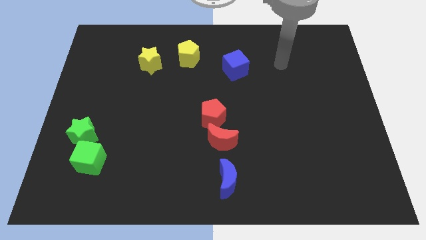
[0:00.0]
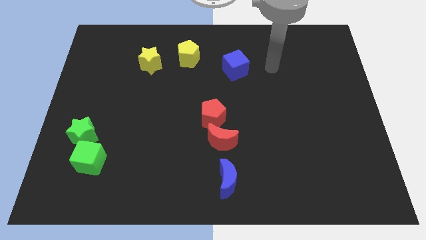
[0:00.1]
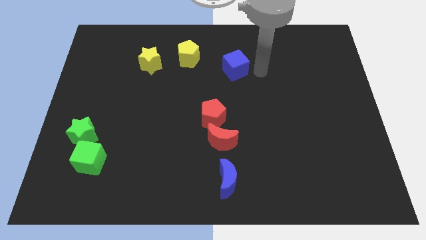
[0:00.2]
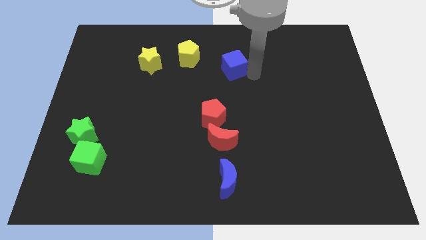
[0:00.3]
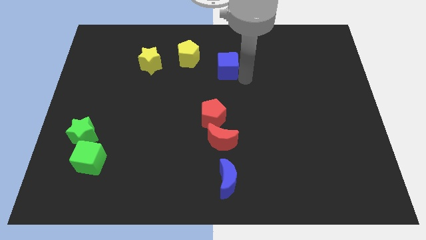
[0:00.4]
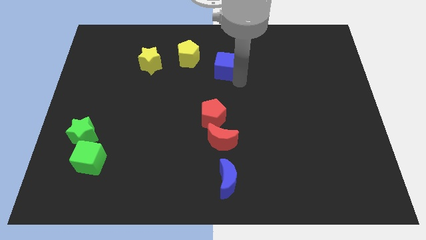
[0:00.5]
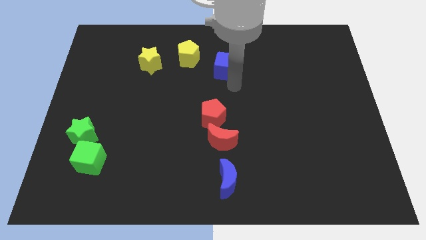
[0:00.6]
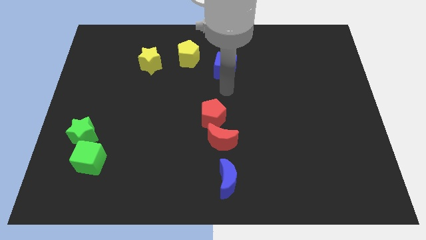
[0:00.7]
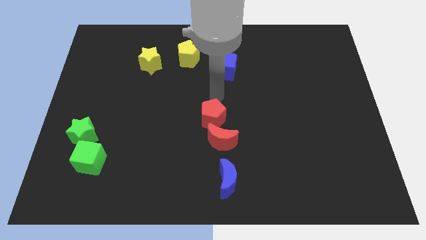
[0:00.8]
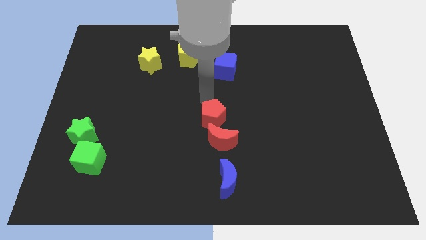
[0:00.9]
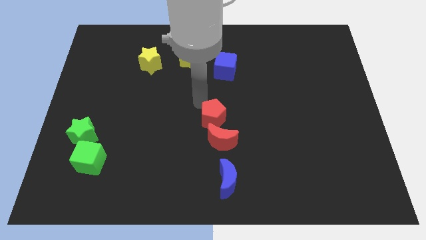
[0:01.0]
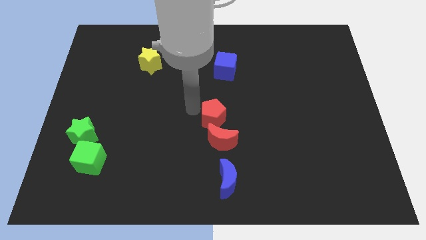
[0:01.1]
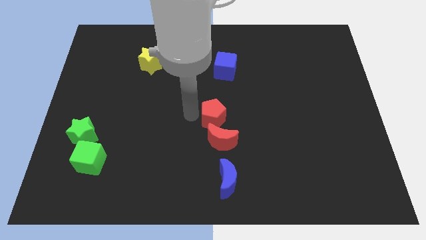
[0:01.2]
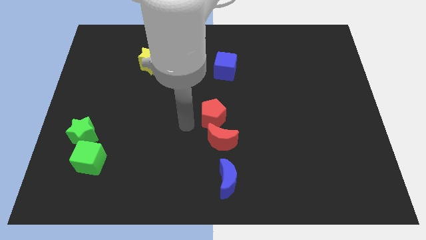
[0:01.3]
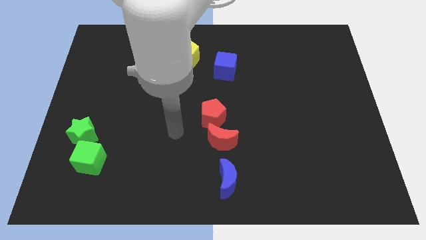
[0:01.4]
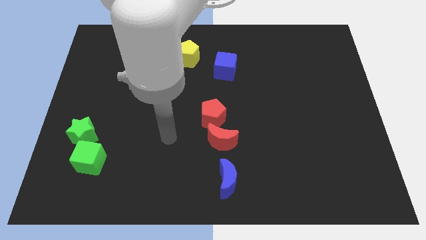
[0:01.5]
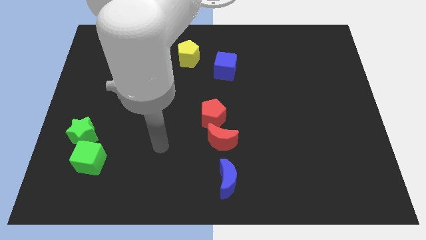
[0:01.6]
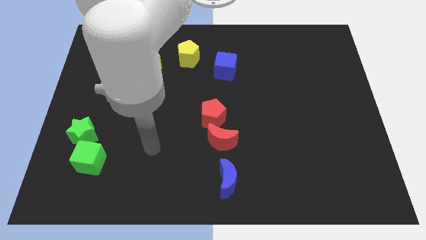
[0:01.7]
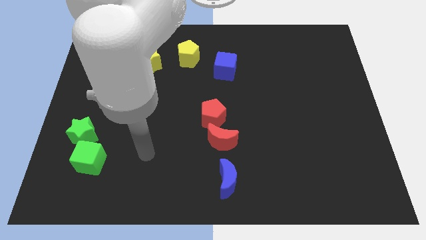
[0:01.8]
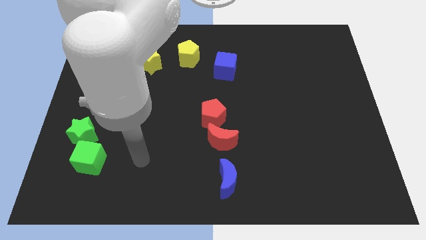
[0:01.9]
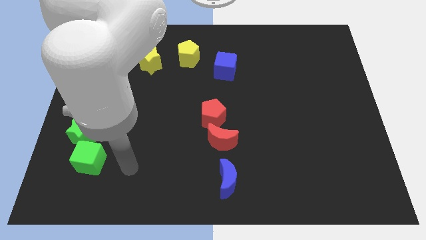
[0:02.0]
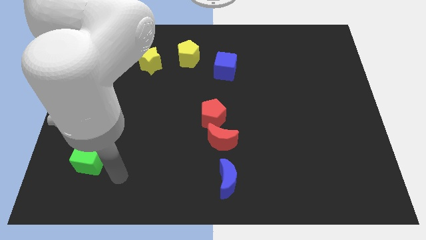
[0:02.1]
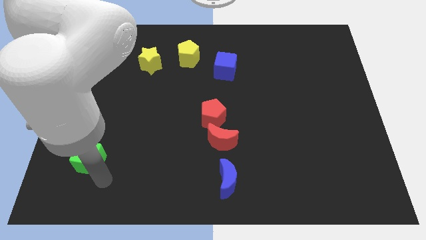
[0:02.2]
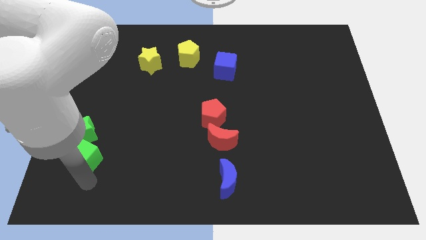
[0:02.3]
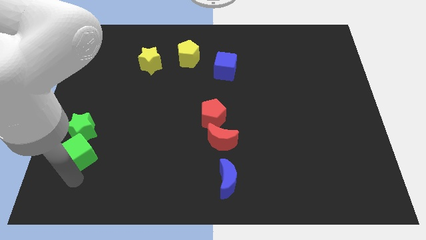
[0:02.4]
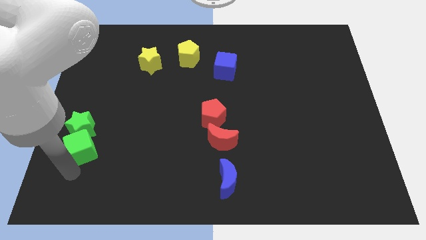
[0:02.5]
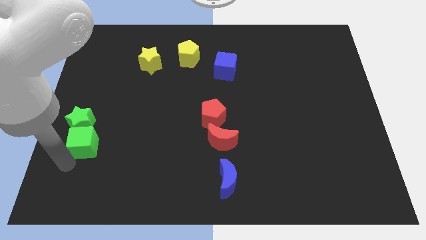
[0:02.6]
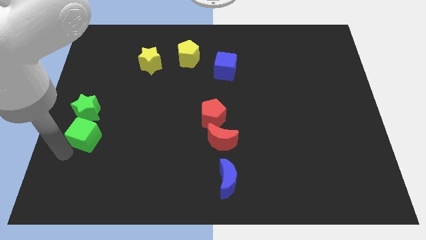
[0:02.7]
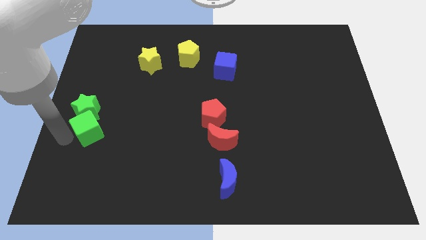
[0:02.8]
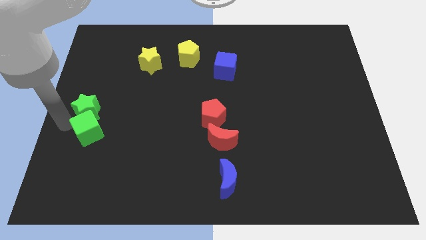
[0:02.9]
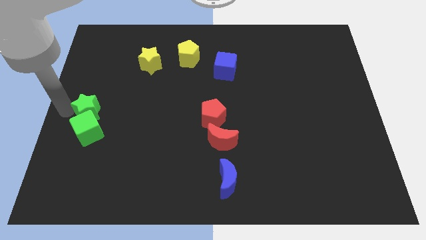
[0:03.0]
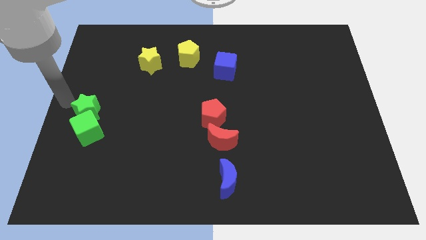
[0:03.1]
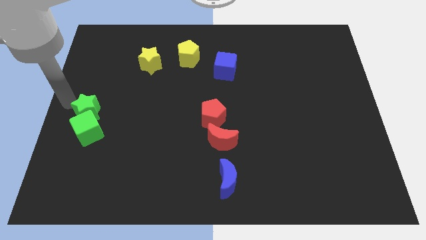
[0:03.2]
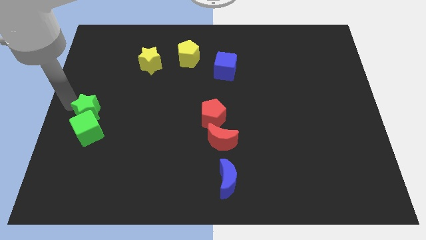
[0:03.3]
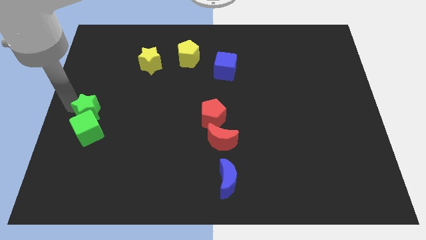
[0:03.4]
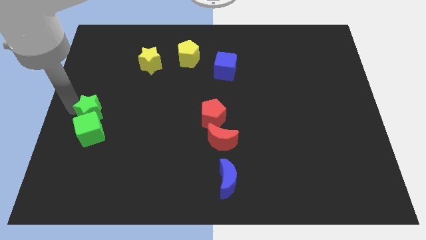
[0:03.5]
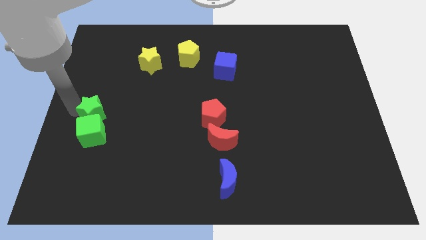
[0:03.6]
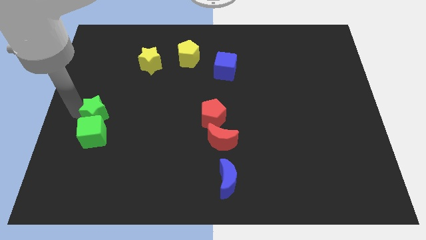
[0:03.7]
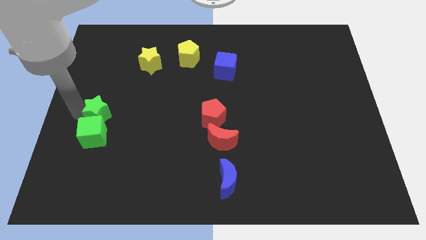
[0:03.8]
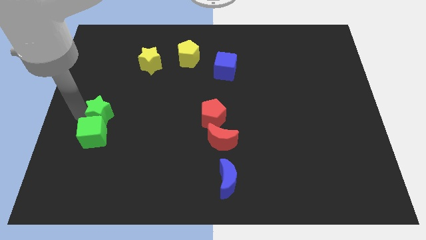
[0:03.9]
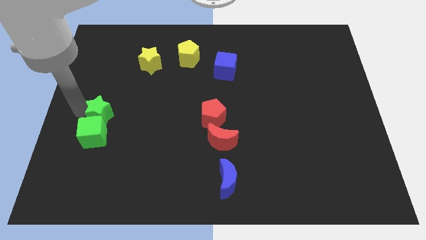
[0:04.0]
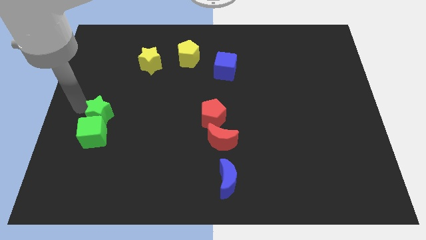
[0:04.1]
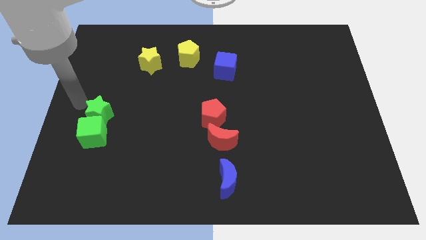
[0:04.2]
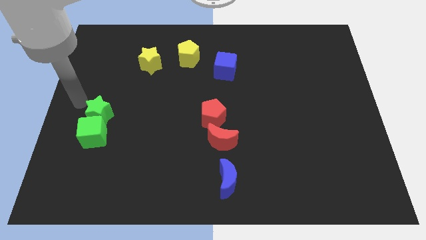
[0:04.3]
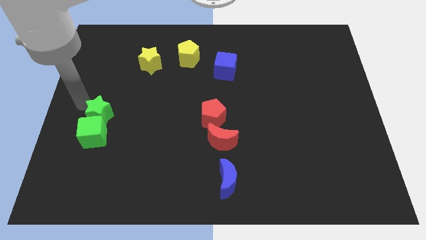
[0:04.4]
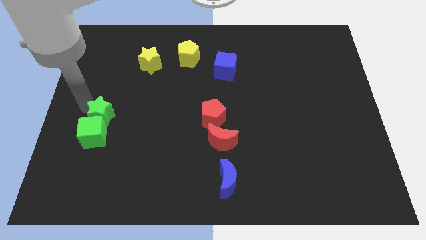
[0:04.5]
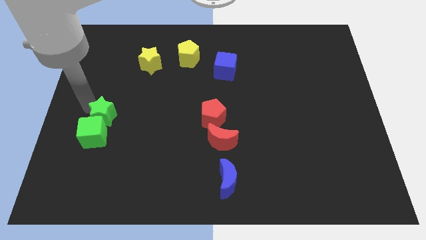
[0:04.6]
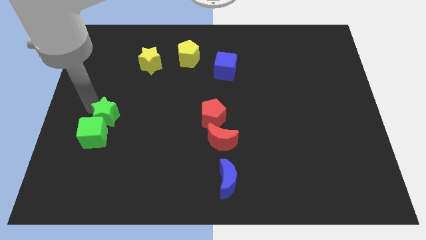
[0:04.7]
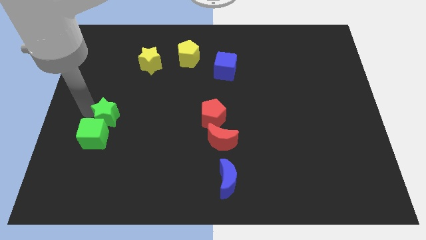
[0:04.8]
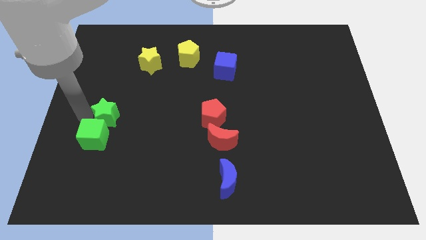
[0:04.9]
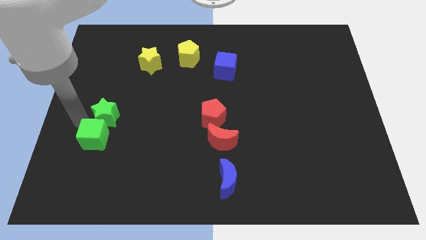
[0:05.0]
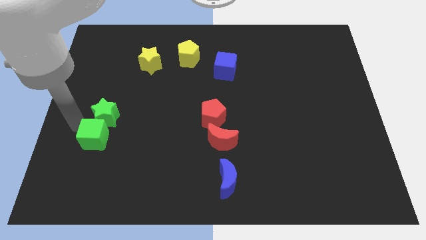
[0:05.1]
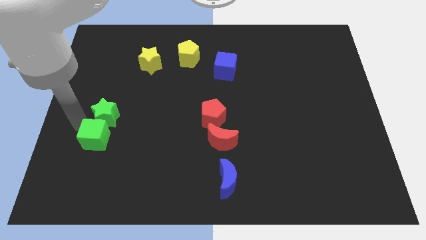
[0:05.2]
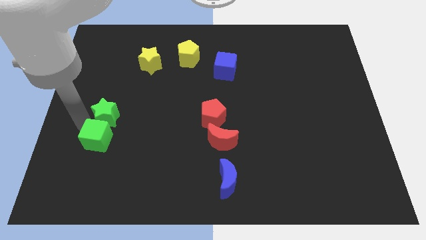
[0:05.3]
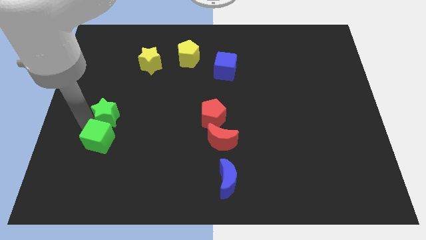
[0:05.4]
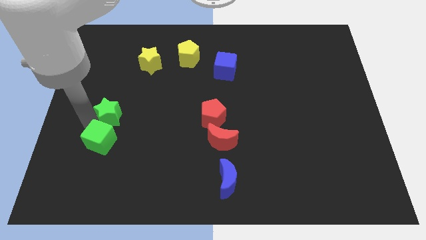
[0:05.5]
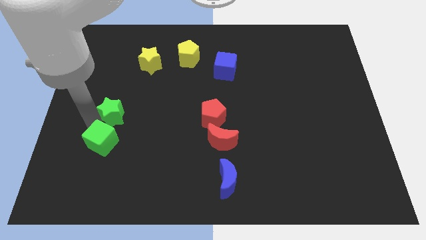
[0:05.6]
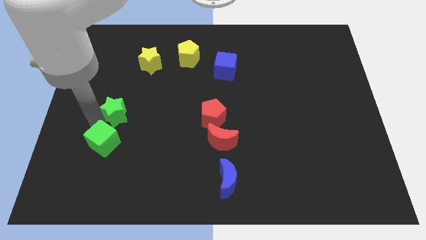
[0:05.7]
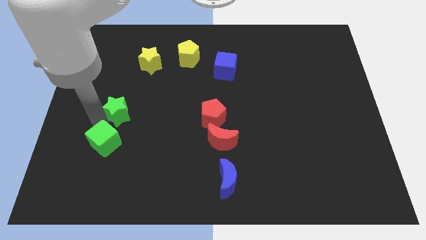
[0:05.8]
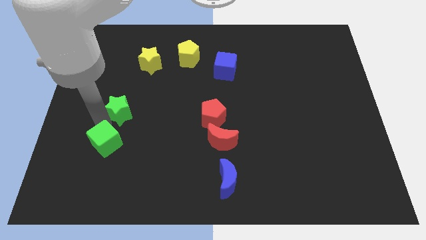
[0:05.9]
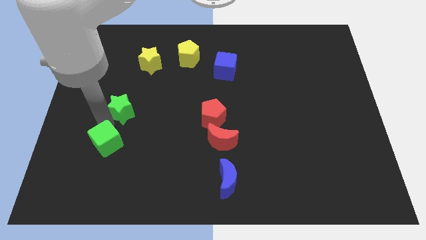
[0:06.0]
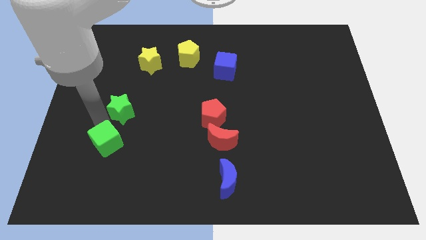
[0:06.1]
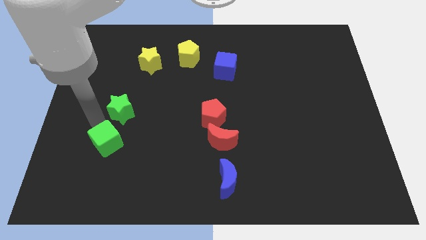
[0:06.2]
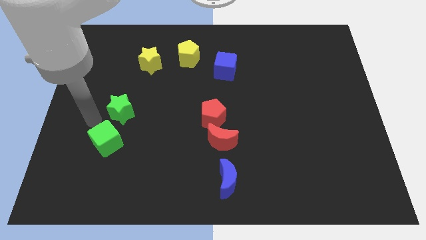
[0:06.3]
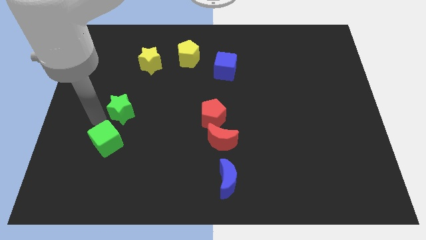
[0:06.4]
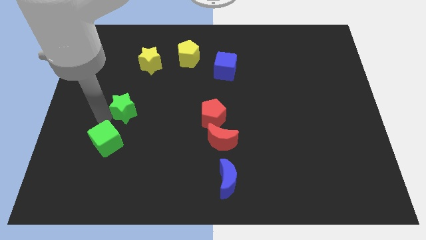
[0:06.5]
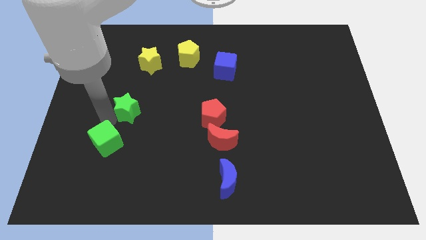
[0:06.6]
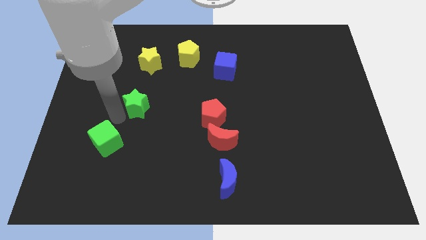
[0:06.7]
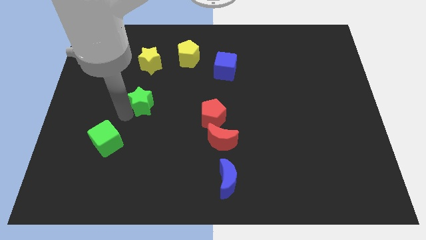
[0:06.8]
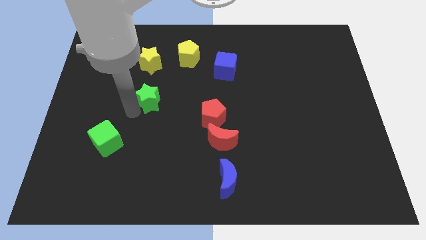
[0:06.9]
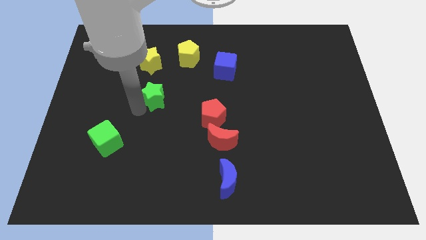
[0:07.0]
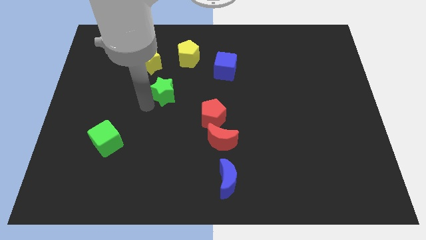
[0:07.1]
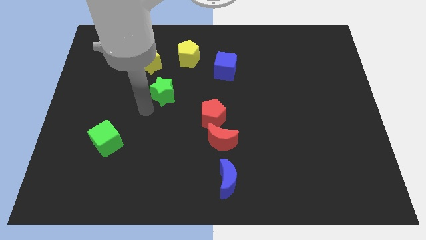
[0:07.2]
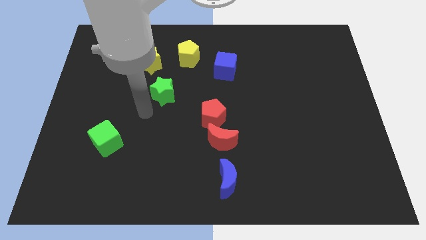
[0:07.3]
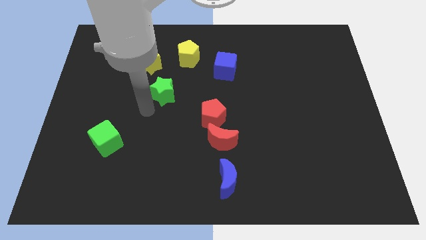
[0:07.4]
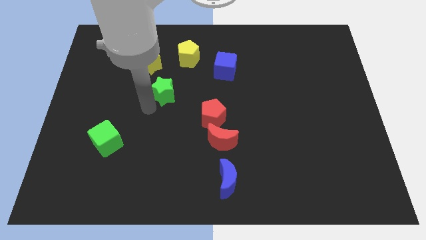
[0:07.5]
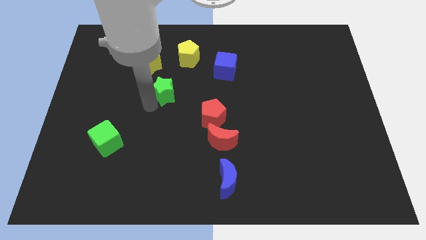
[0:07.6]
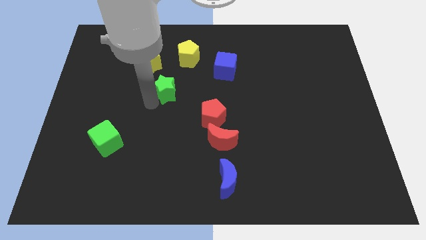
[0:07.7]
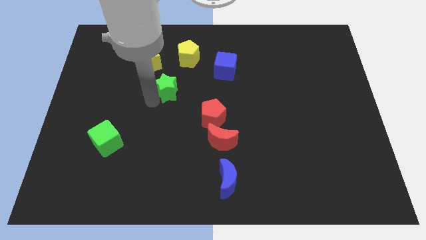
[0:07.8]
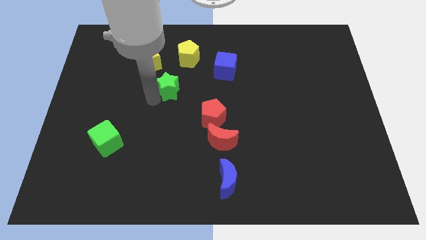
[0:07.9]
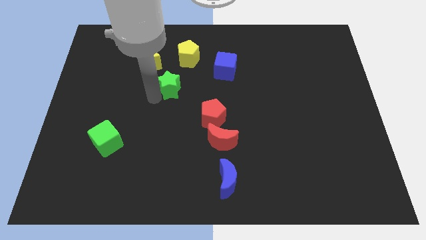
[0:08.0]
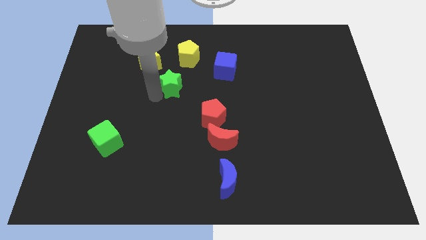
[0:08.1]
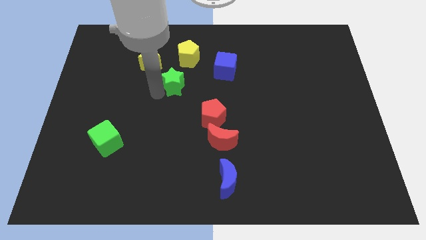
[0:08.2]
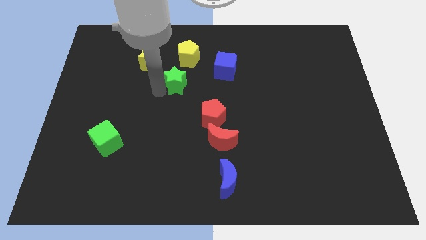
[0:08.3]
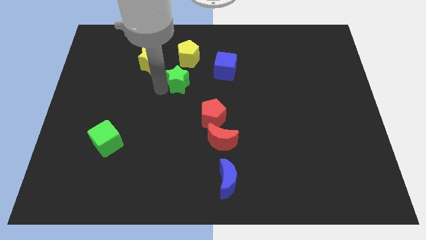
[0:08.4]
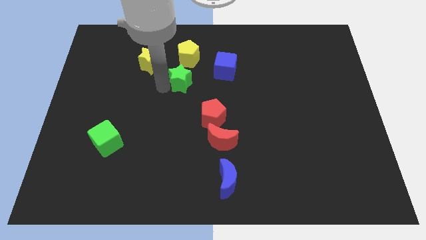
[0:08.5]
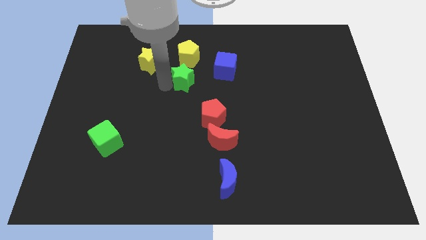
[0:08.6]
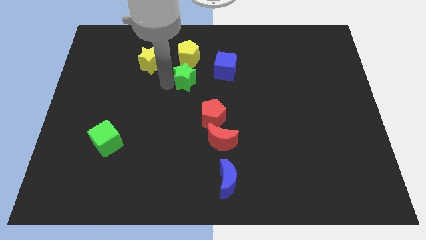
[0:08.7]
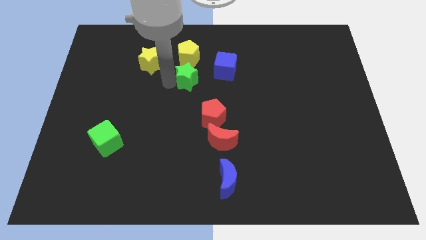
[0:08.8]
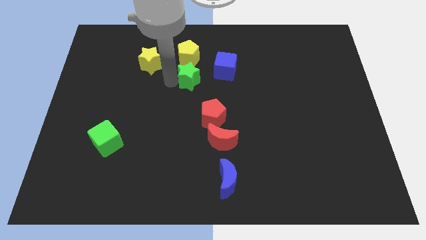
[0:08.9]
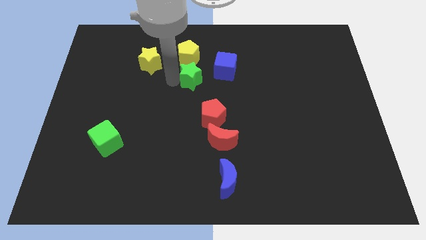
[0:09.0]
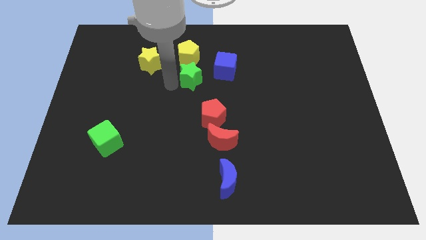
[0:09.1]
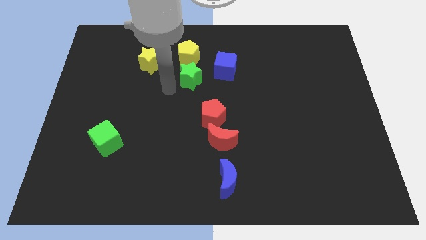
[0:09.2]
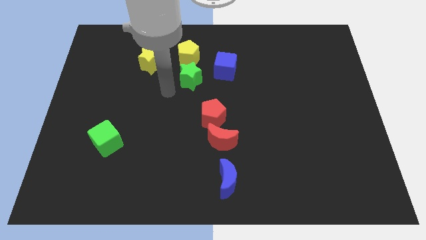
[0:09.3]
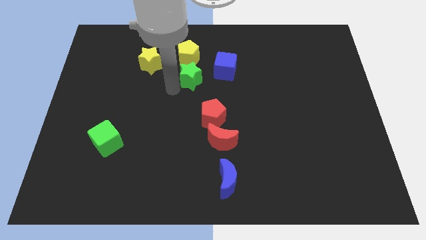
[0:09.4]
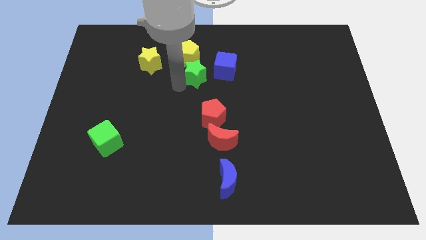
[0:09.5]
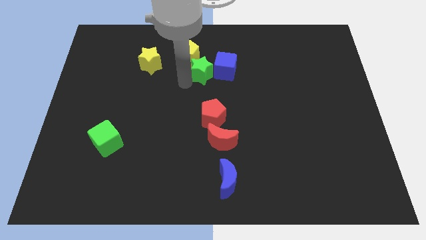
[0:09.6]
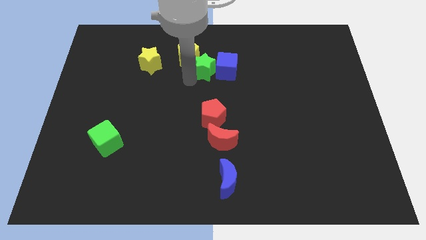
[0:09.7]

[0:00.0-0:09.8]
put the green star just right of the yellow pentagon
